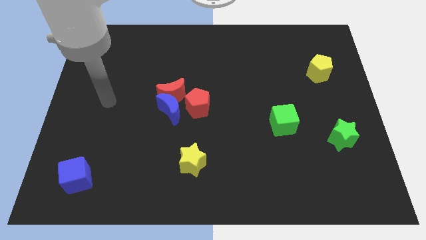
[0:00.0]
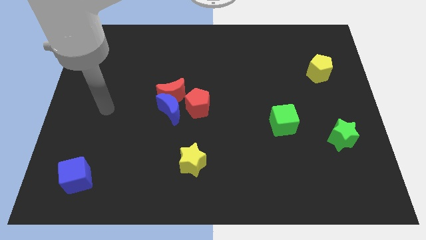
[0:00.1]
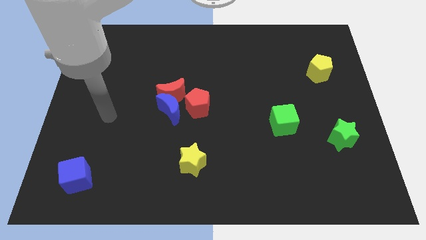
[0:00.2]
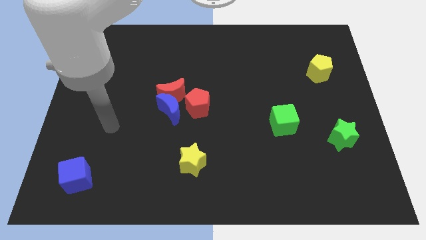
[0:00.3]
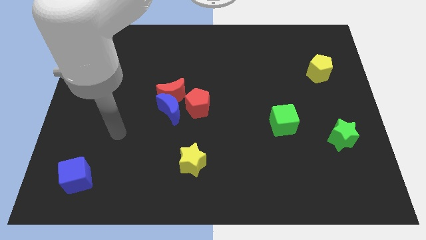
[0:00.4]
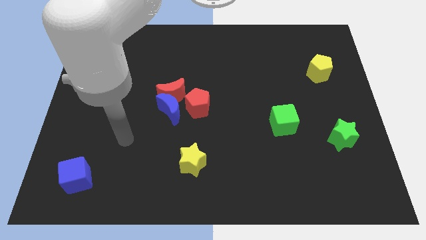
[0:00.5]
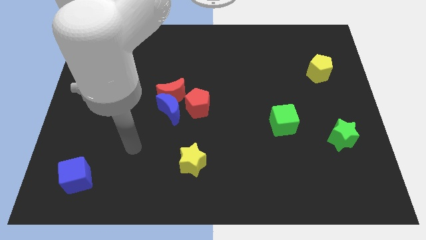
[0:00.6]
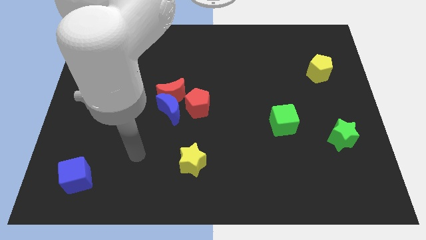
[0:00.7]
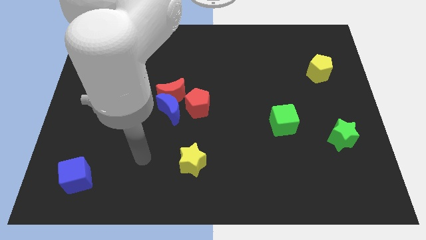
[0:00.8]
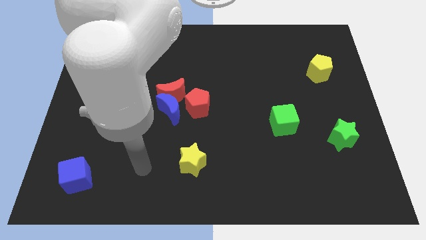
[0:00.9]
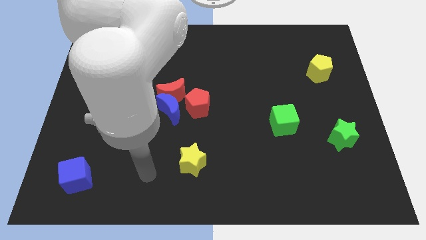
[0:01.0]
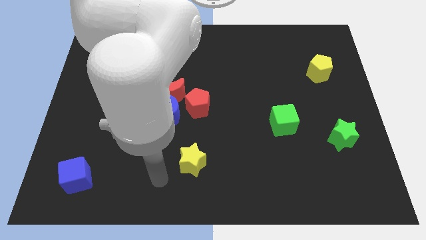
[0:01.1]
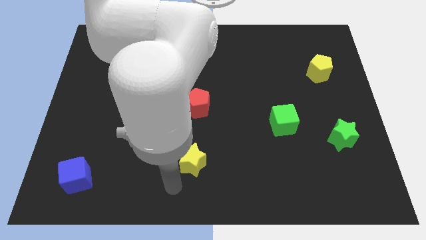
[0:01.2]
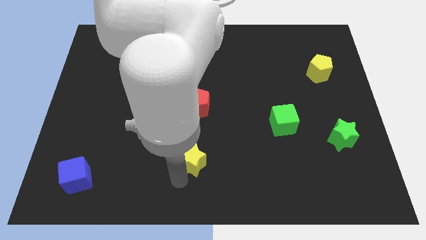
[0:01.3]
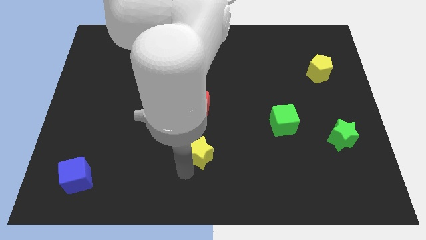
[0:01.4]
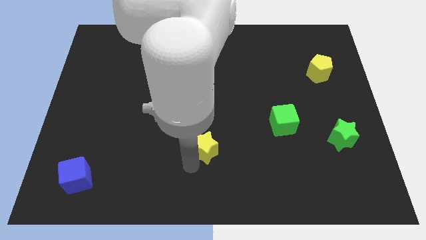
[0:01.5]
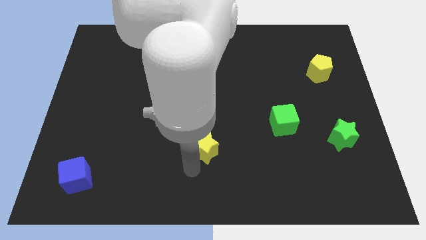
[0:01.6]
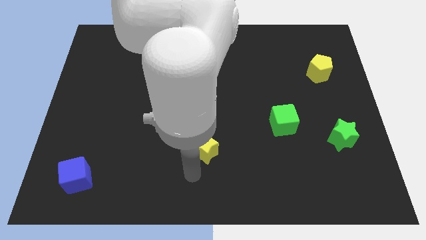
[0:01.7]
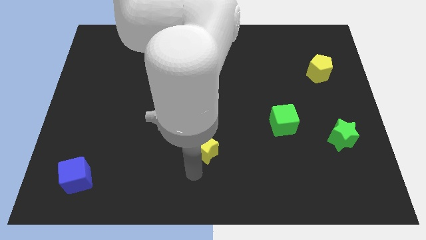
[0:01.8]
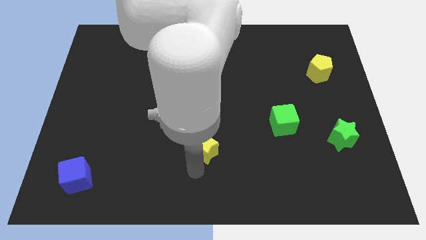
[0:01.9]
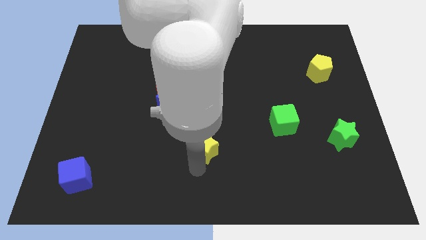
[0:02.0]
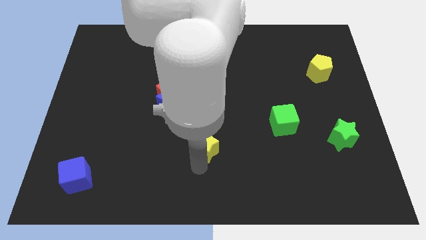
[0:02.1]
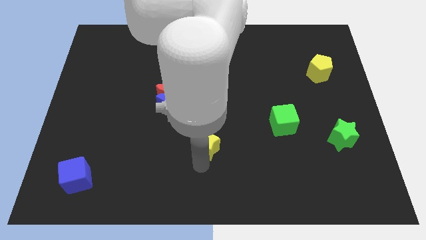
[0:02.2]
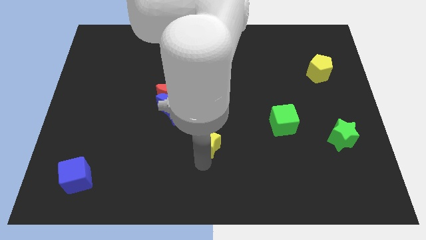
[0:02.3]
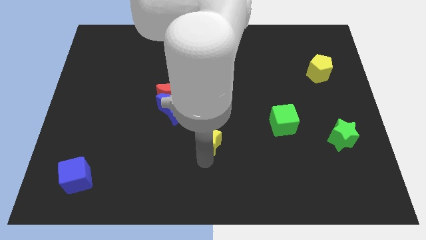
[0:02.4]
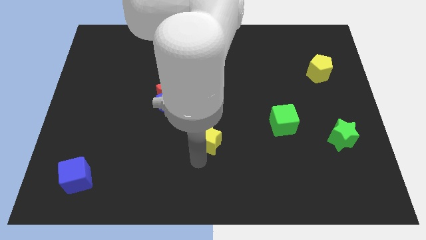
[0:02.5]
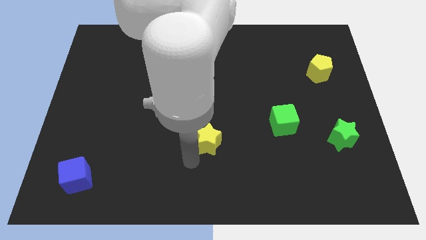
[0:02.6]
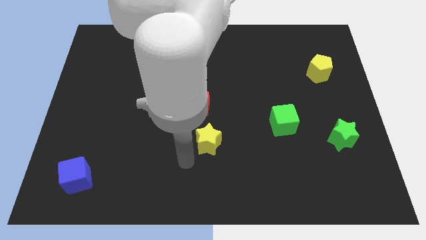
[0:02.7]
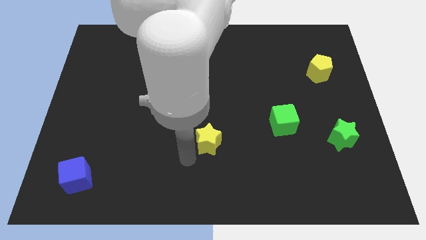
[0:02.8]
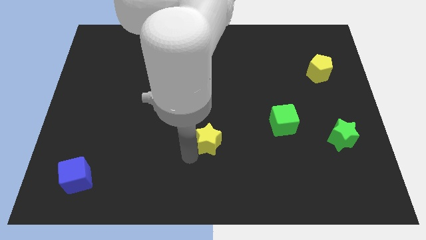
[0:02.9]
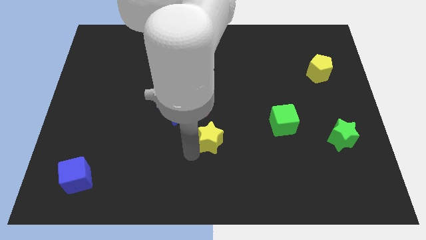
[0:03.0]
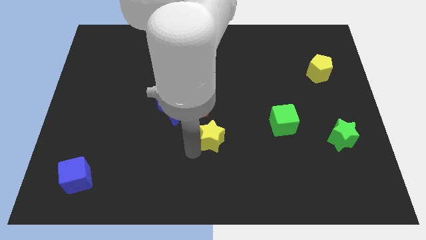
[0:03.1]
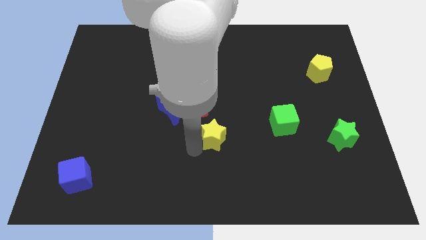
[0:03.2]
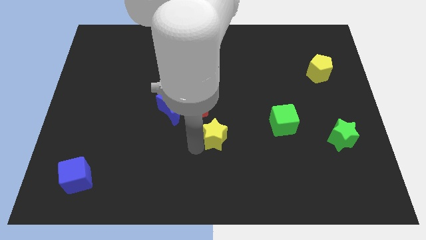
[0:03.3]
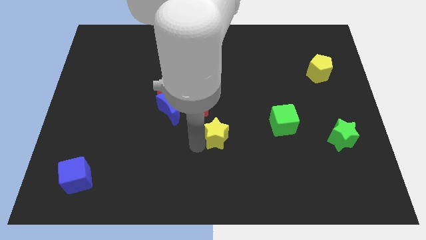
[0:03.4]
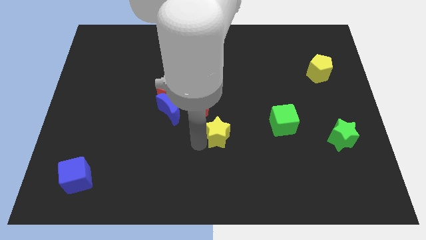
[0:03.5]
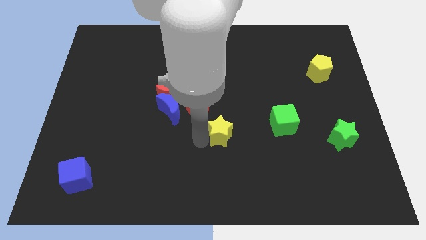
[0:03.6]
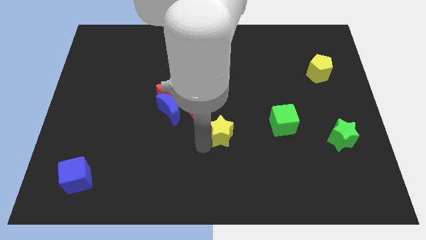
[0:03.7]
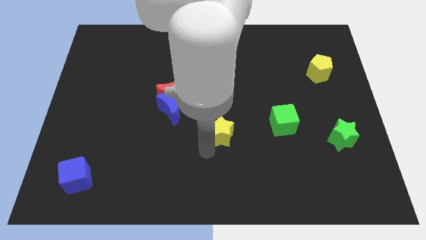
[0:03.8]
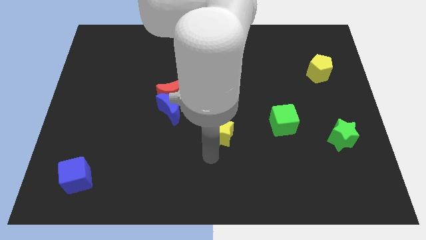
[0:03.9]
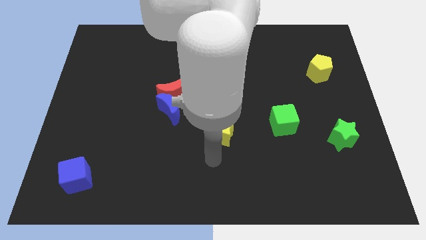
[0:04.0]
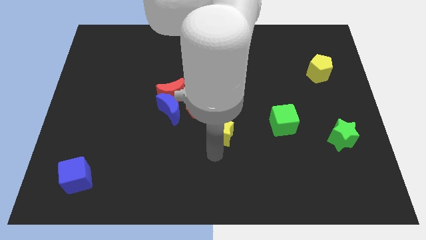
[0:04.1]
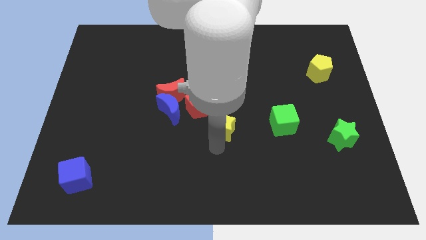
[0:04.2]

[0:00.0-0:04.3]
push the yellow star a little up

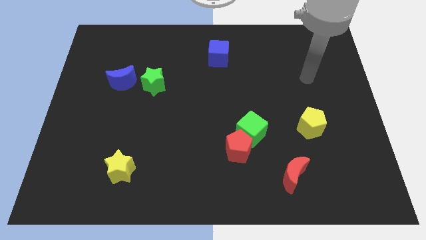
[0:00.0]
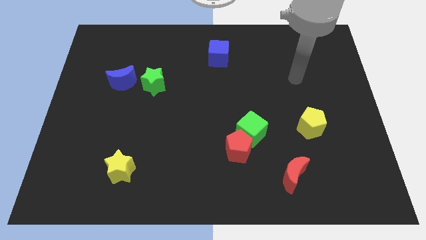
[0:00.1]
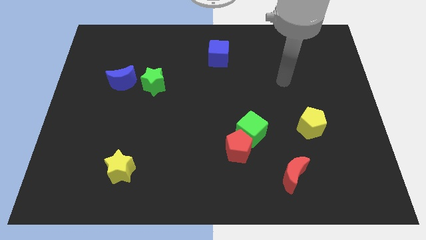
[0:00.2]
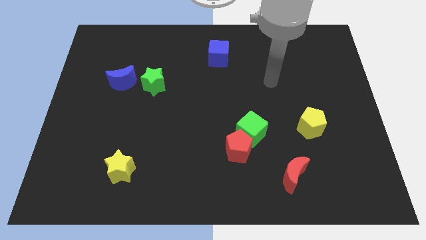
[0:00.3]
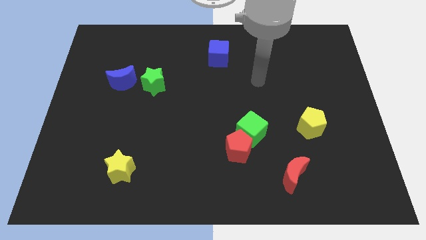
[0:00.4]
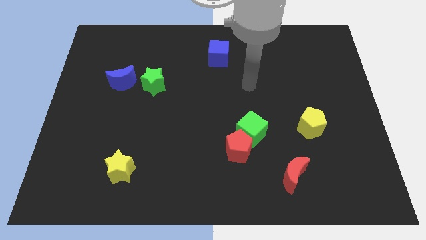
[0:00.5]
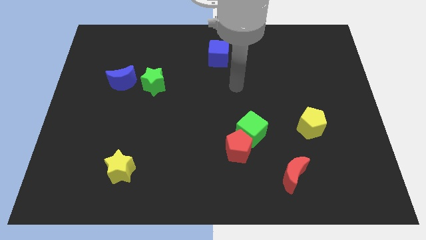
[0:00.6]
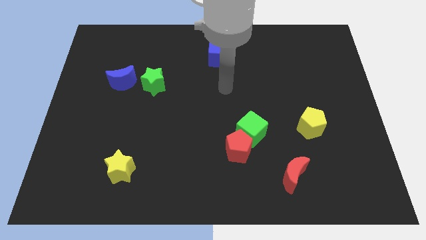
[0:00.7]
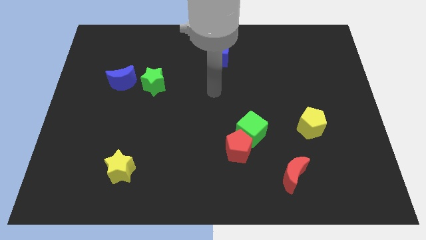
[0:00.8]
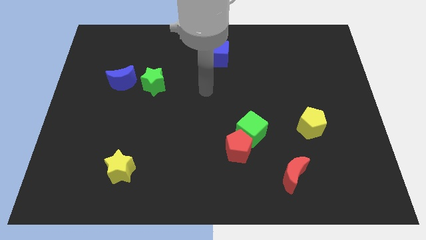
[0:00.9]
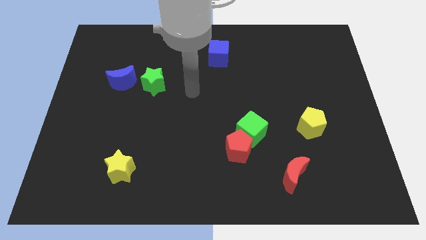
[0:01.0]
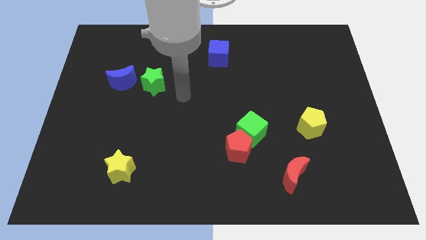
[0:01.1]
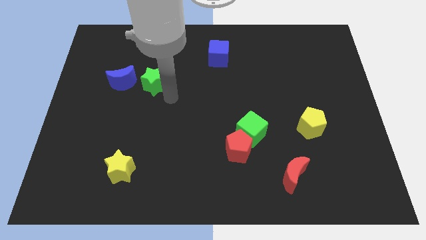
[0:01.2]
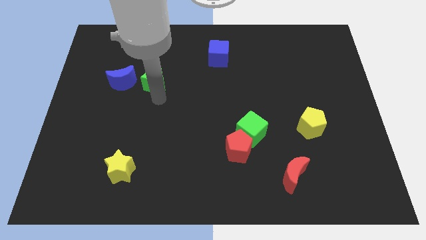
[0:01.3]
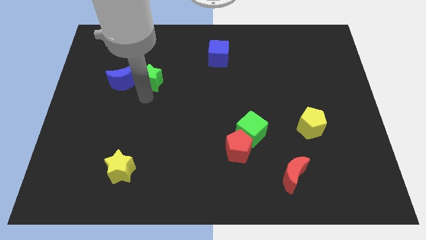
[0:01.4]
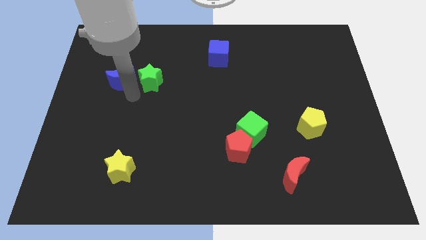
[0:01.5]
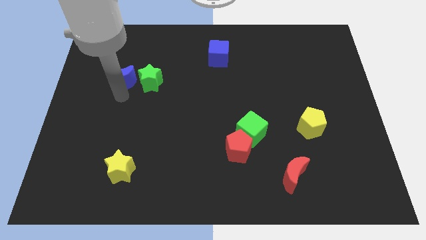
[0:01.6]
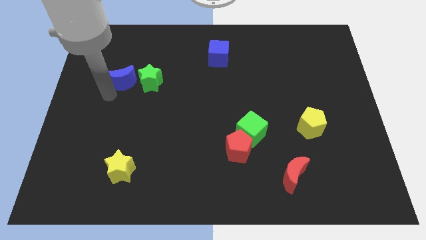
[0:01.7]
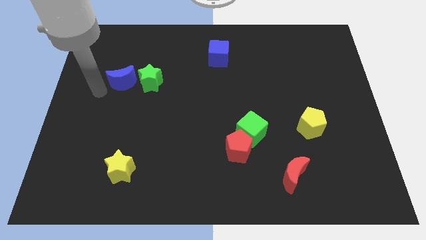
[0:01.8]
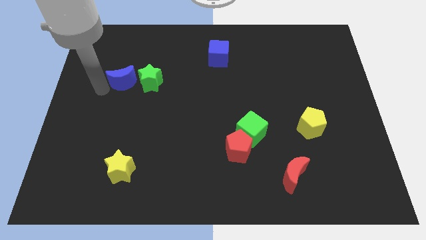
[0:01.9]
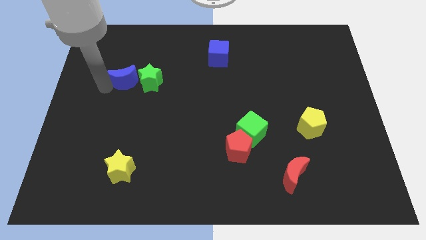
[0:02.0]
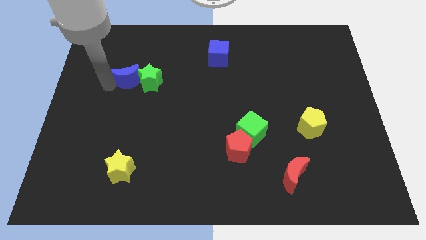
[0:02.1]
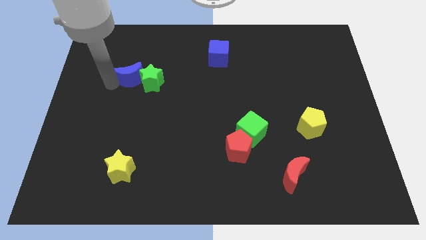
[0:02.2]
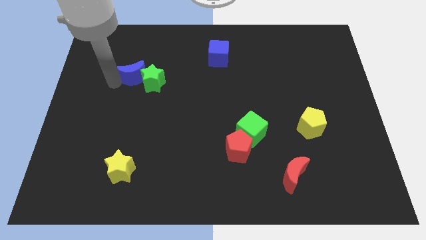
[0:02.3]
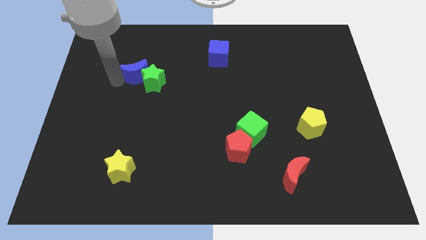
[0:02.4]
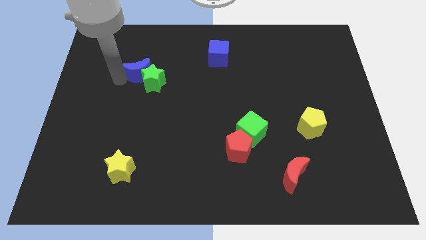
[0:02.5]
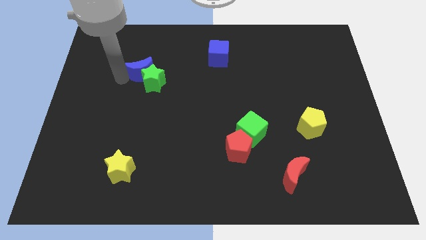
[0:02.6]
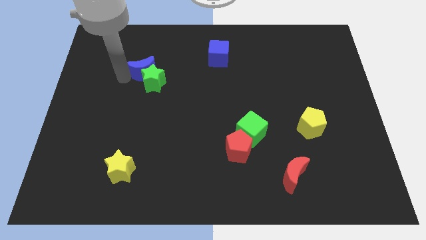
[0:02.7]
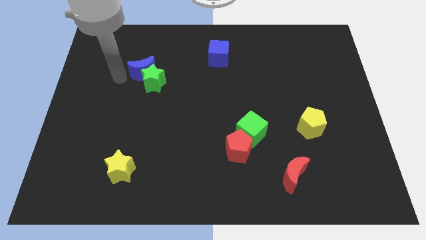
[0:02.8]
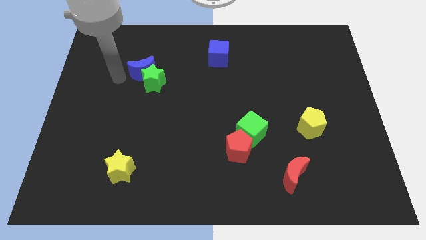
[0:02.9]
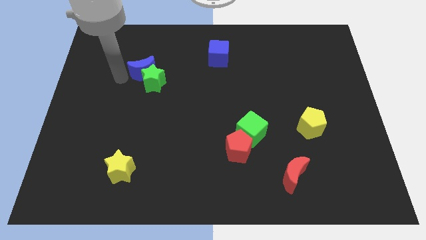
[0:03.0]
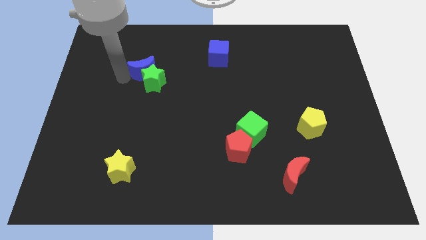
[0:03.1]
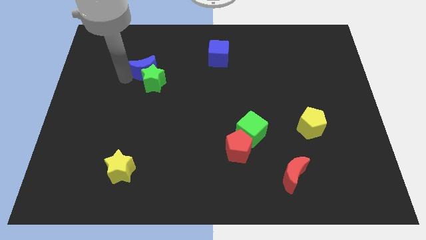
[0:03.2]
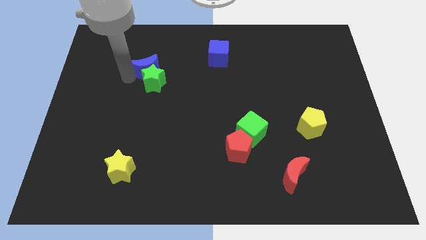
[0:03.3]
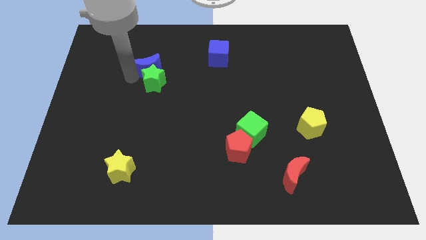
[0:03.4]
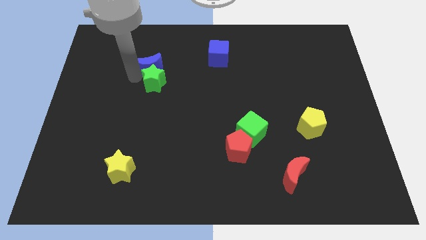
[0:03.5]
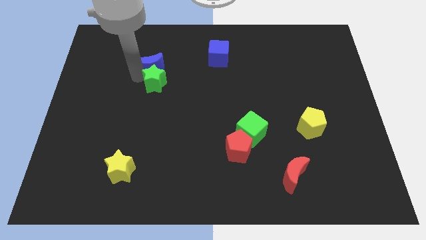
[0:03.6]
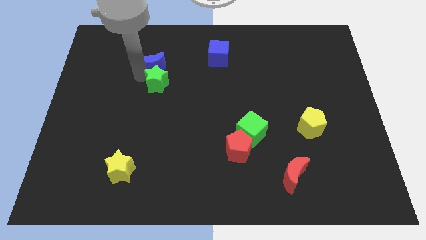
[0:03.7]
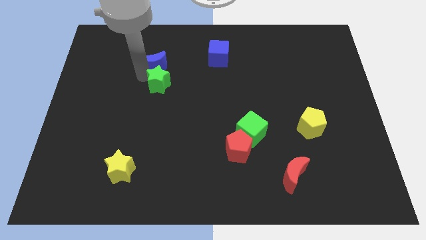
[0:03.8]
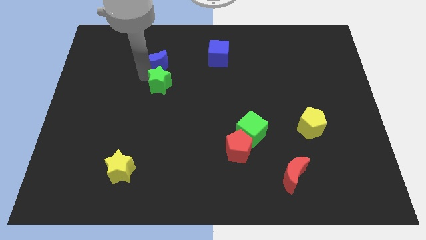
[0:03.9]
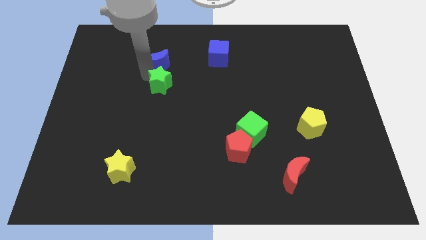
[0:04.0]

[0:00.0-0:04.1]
slightly move the blue moon right

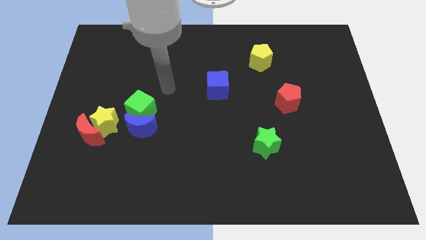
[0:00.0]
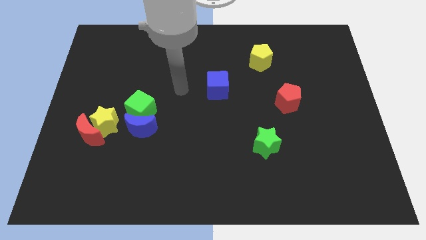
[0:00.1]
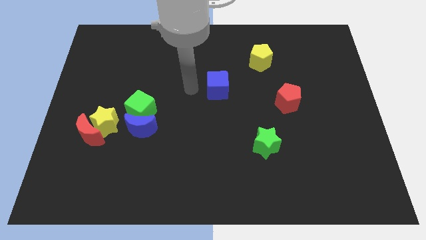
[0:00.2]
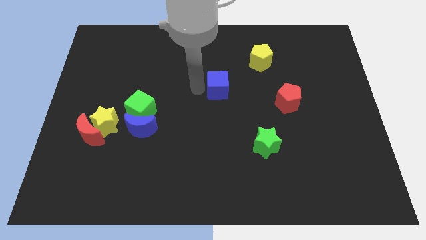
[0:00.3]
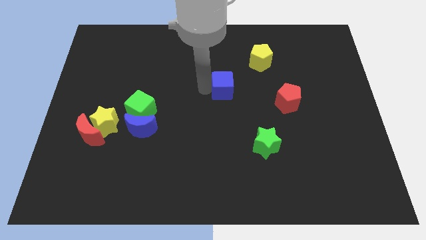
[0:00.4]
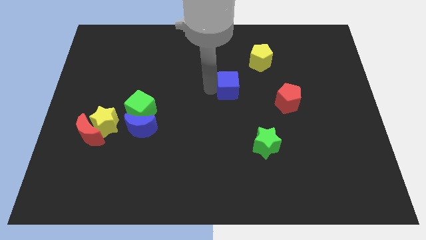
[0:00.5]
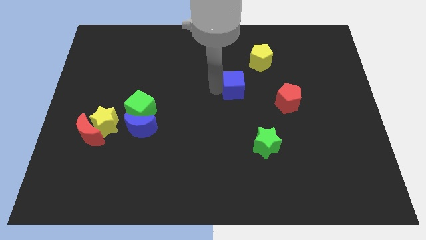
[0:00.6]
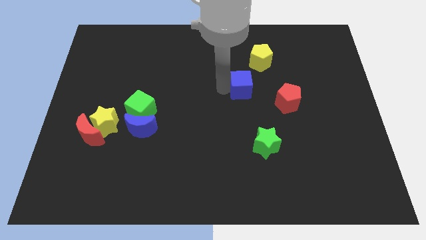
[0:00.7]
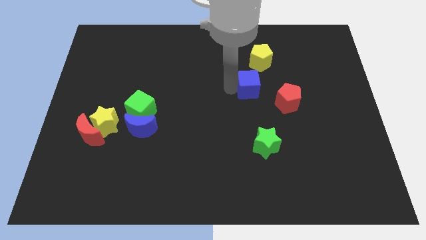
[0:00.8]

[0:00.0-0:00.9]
slide the blue cube right a little bit
